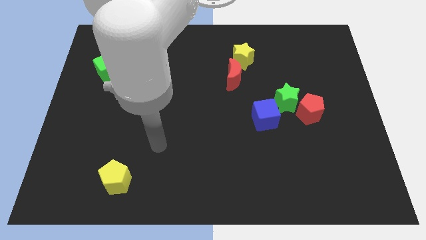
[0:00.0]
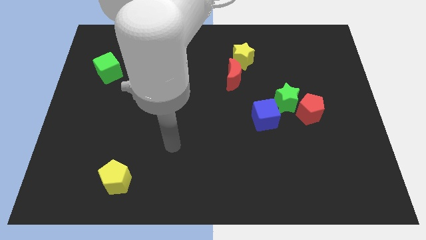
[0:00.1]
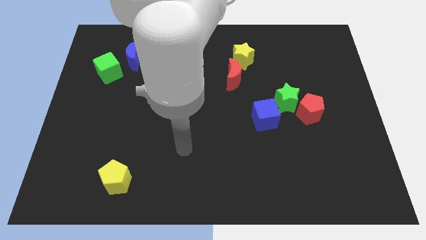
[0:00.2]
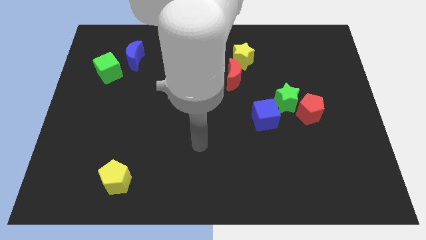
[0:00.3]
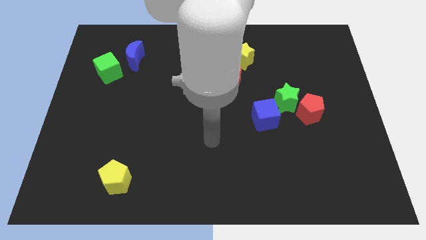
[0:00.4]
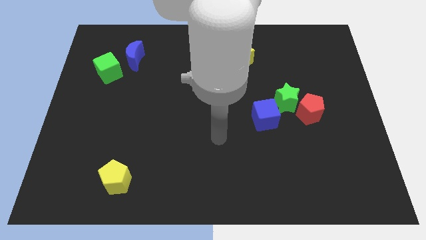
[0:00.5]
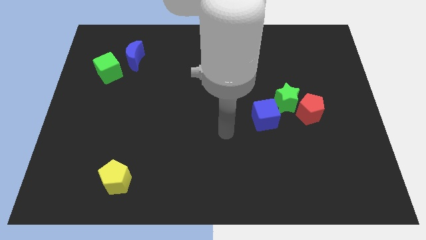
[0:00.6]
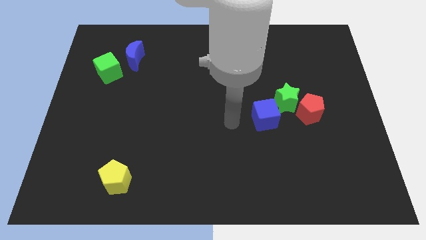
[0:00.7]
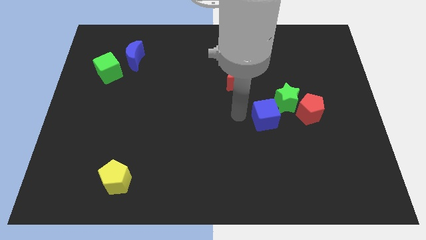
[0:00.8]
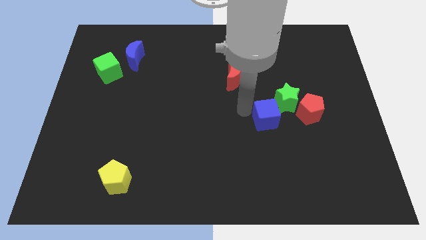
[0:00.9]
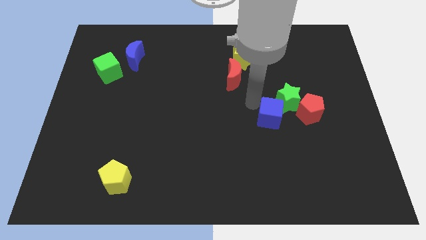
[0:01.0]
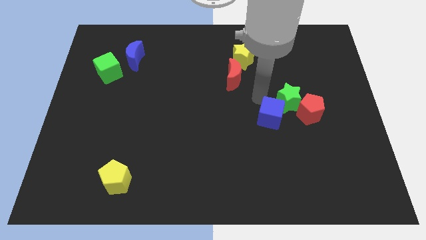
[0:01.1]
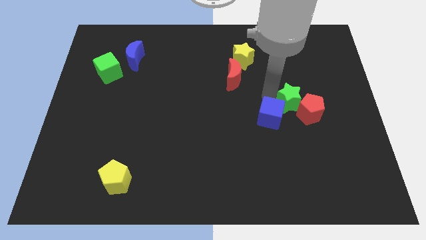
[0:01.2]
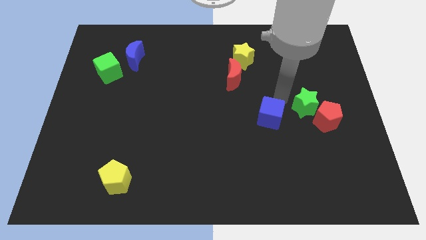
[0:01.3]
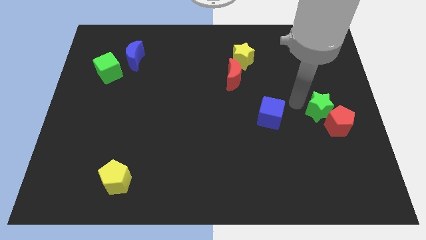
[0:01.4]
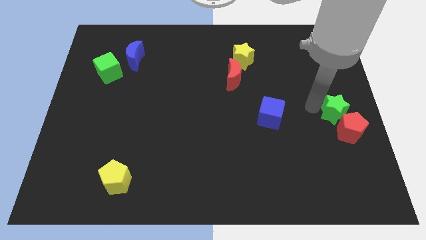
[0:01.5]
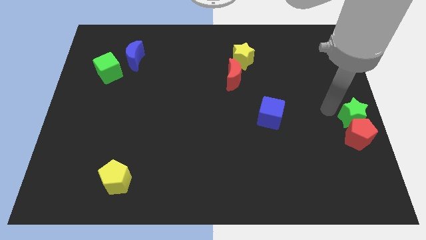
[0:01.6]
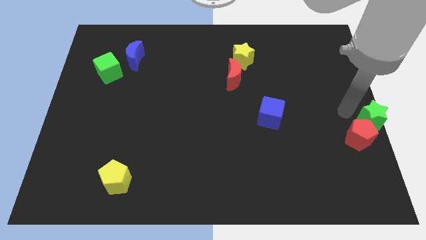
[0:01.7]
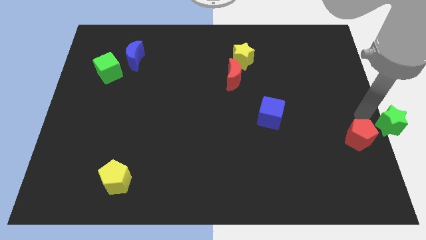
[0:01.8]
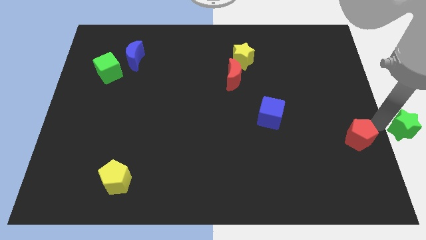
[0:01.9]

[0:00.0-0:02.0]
pull the red pentagon apart from the green star

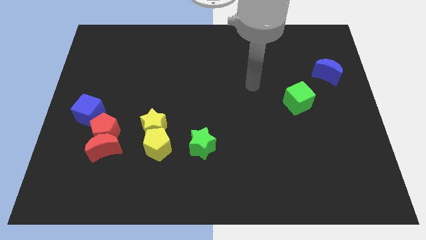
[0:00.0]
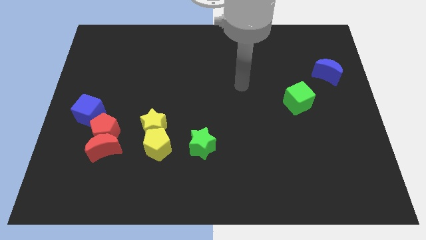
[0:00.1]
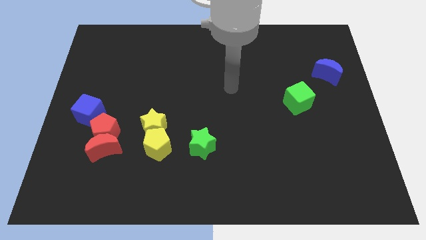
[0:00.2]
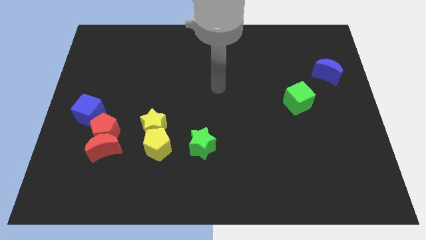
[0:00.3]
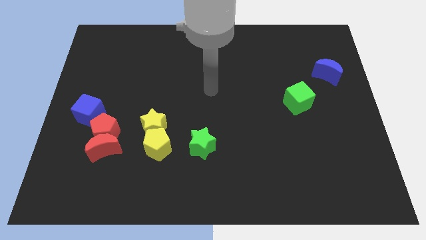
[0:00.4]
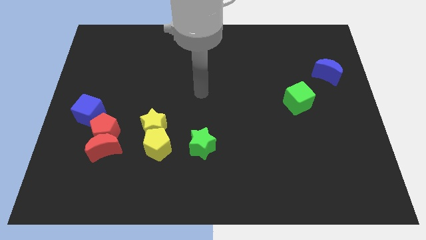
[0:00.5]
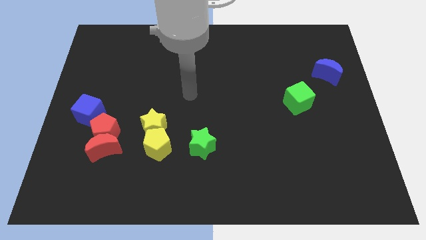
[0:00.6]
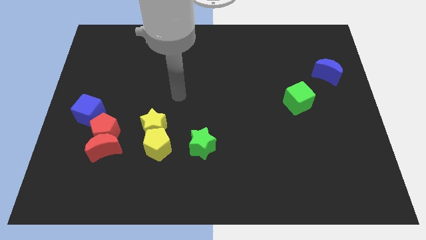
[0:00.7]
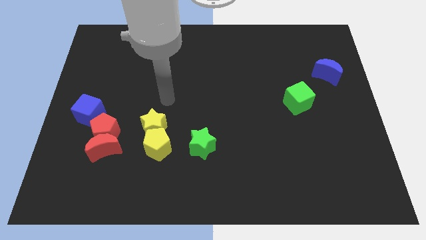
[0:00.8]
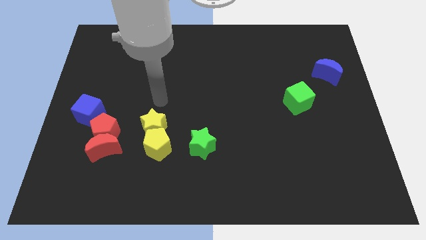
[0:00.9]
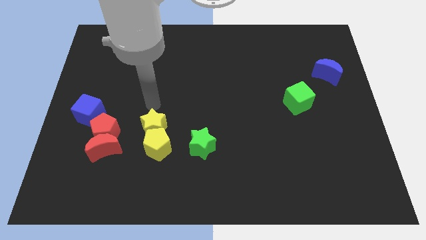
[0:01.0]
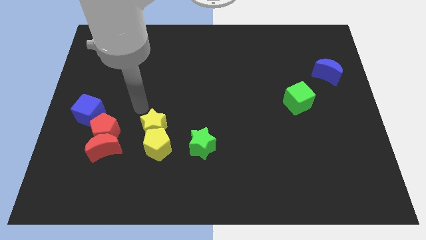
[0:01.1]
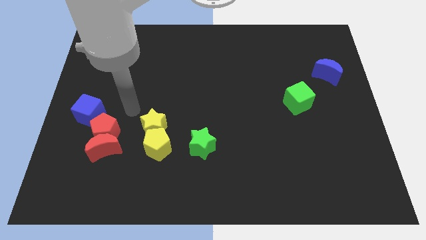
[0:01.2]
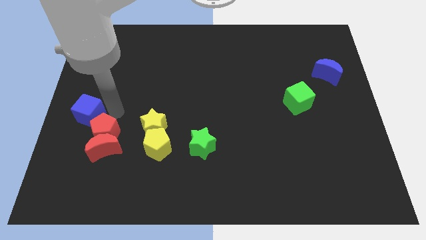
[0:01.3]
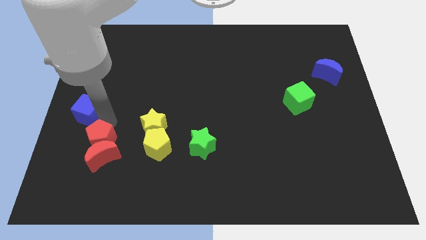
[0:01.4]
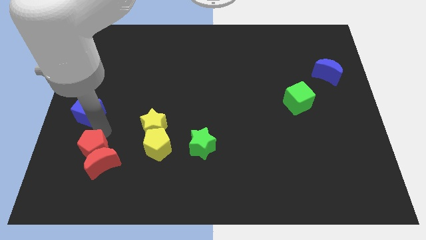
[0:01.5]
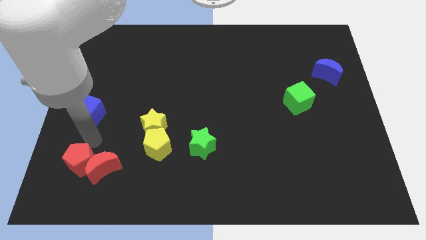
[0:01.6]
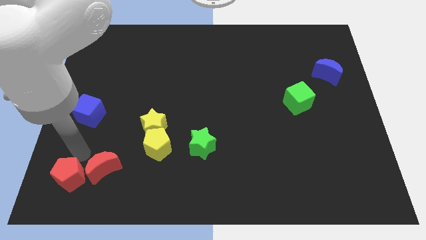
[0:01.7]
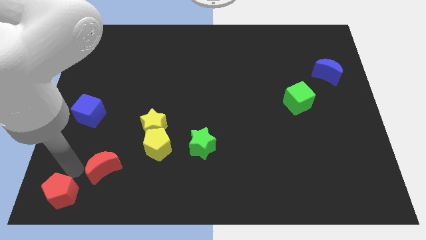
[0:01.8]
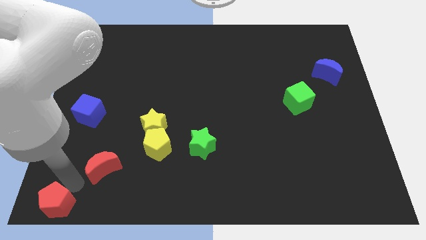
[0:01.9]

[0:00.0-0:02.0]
move the red moon away from the red pentagon

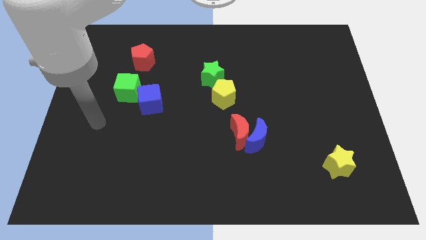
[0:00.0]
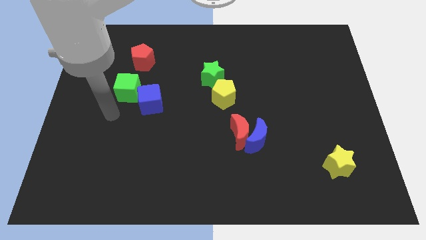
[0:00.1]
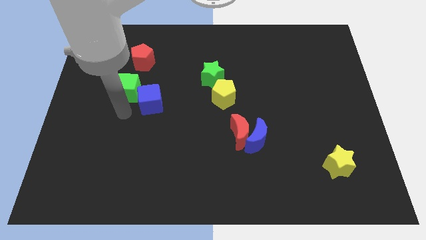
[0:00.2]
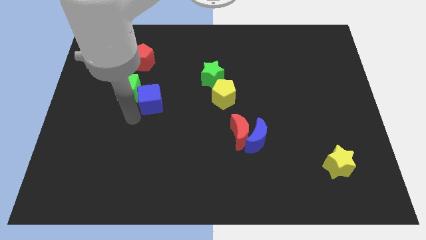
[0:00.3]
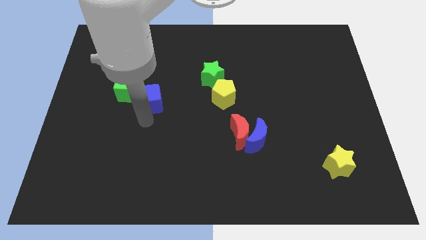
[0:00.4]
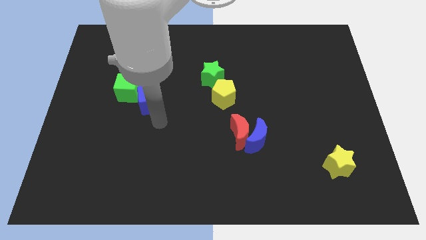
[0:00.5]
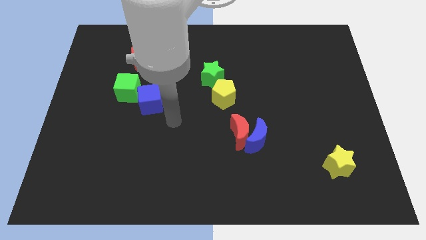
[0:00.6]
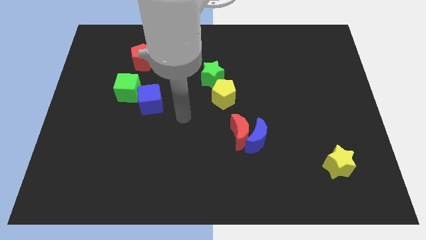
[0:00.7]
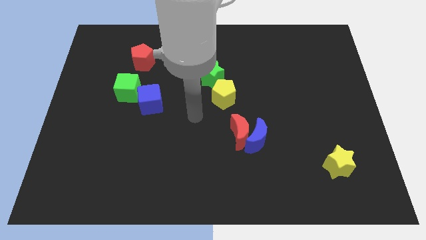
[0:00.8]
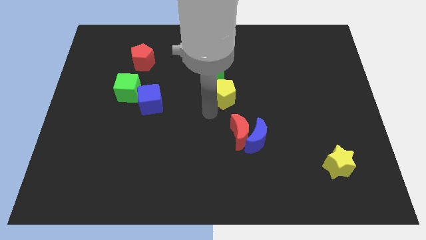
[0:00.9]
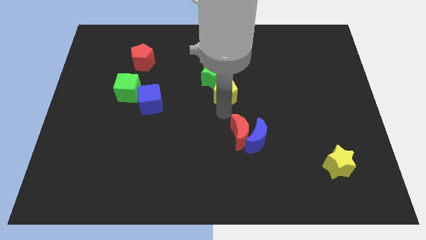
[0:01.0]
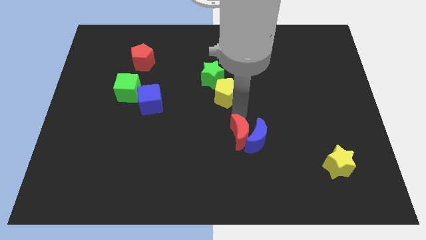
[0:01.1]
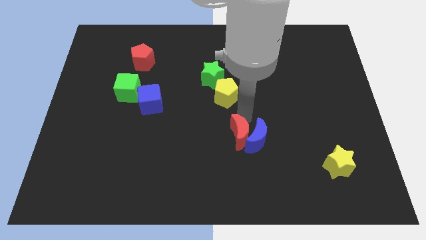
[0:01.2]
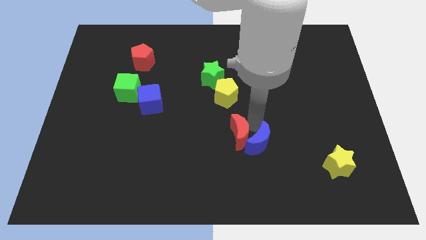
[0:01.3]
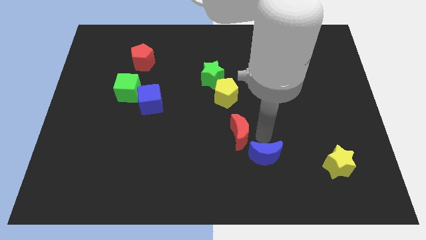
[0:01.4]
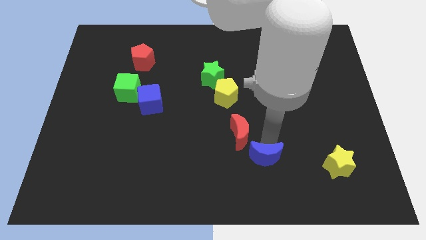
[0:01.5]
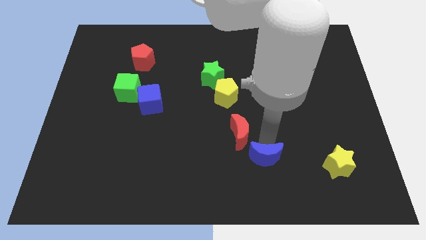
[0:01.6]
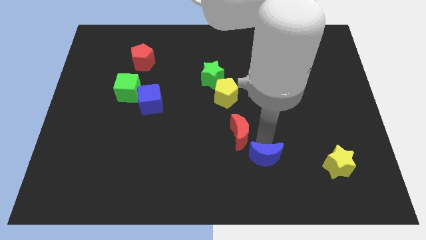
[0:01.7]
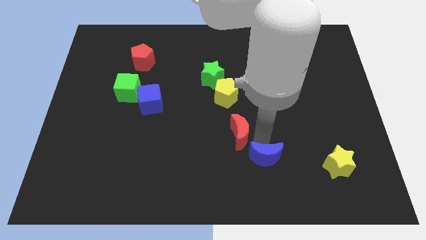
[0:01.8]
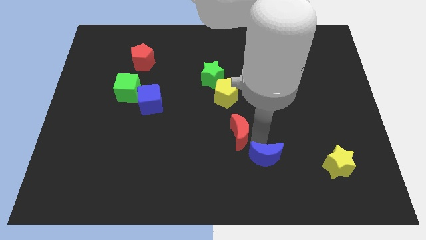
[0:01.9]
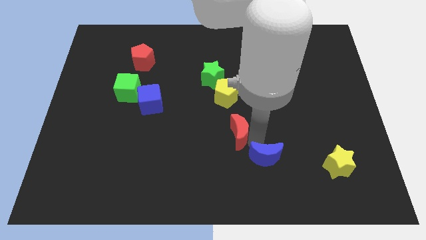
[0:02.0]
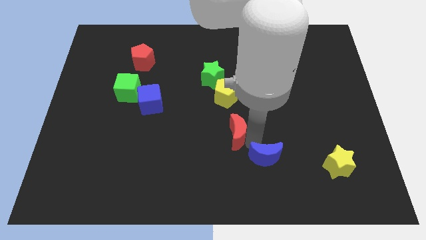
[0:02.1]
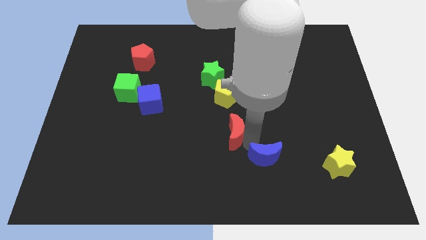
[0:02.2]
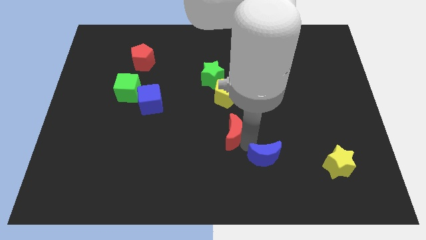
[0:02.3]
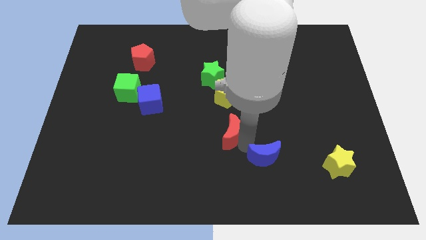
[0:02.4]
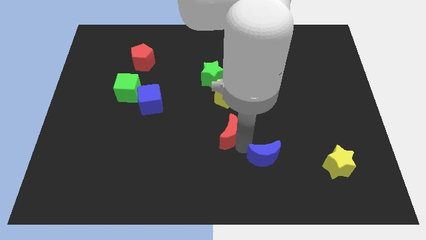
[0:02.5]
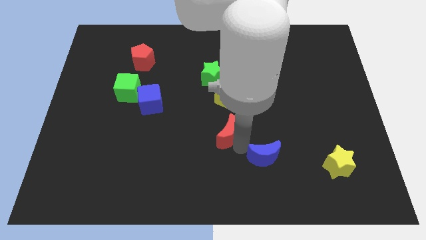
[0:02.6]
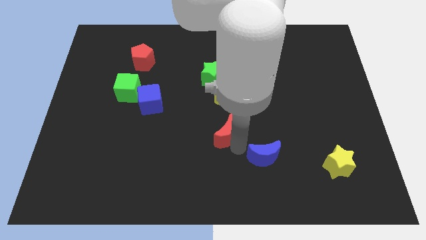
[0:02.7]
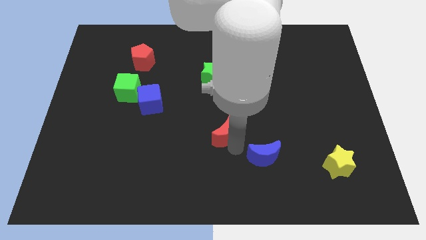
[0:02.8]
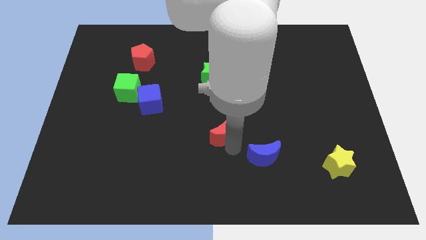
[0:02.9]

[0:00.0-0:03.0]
pull the red moon apart from the blue moon

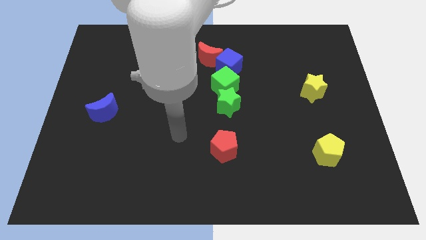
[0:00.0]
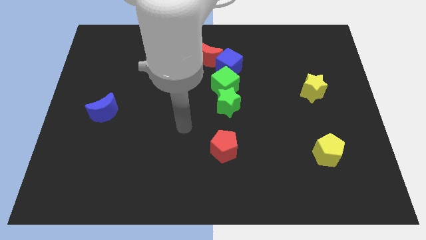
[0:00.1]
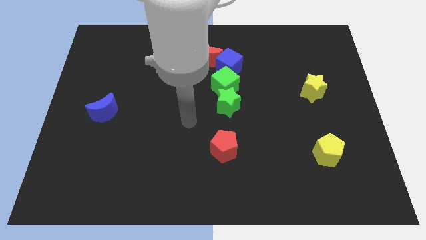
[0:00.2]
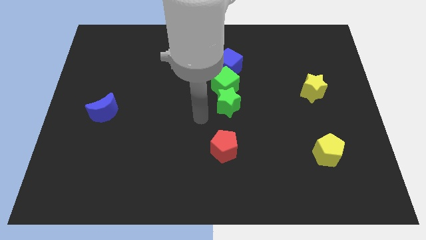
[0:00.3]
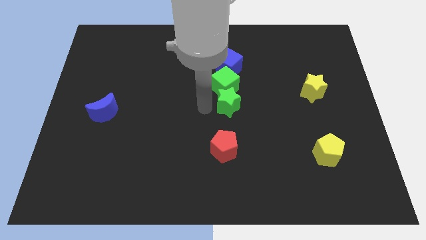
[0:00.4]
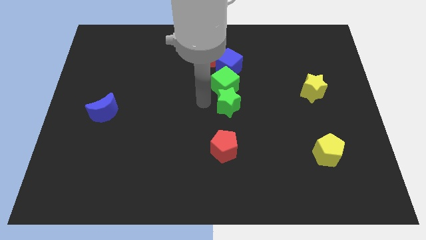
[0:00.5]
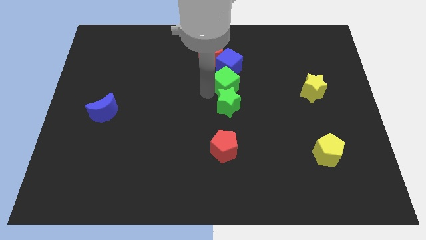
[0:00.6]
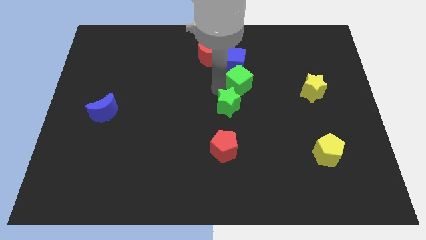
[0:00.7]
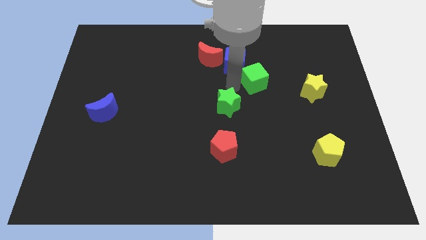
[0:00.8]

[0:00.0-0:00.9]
separate the green star from the green cube

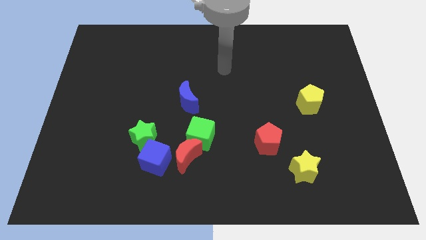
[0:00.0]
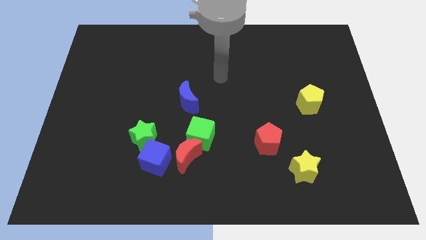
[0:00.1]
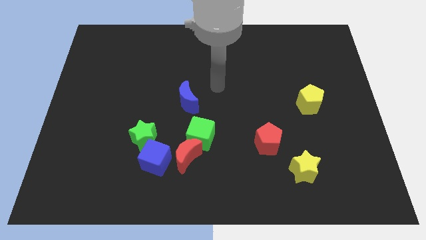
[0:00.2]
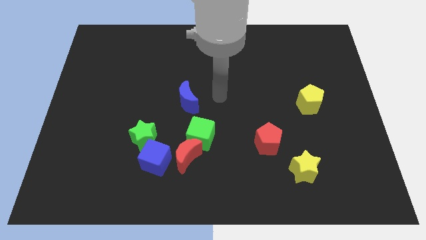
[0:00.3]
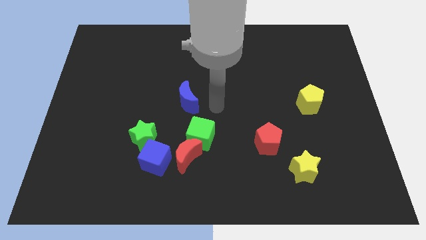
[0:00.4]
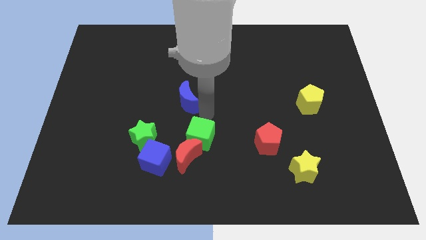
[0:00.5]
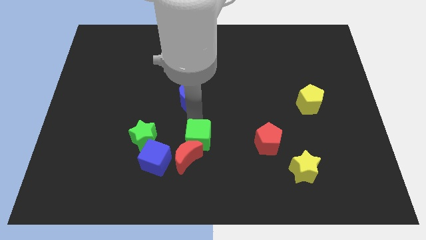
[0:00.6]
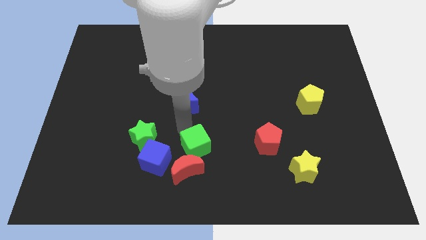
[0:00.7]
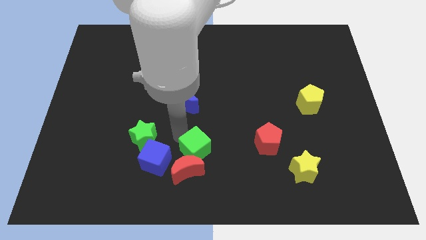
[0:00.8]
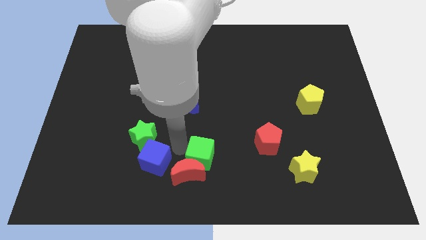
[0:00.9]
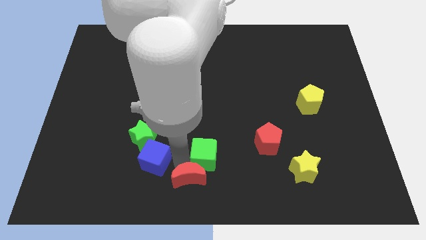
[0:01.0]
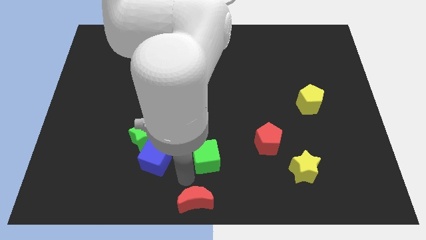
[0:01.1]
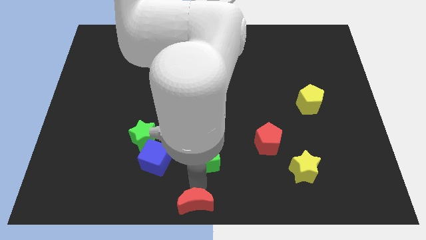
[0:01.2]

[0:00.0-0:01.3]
separate the green cube from the red moon
